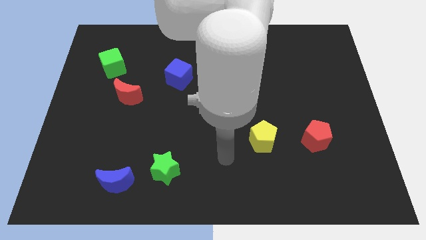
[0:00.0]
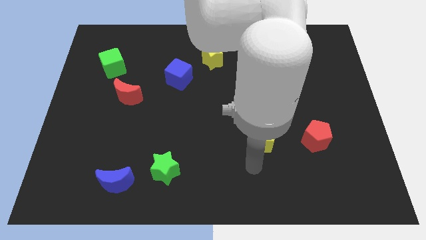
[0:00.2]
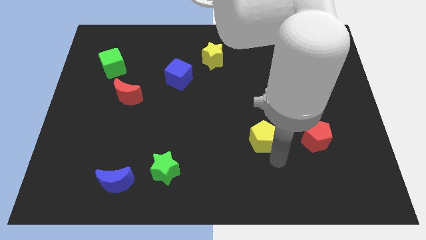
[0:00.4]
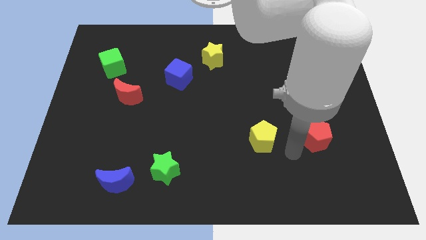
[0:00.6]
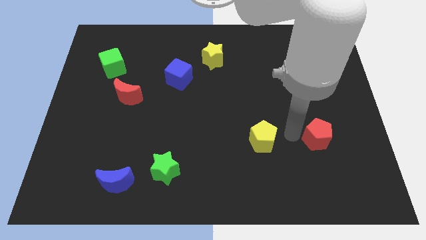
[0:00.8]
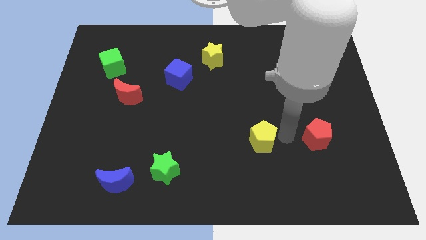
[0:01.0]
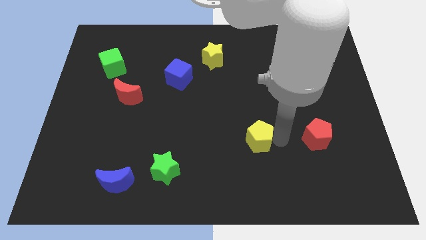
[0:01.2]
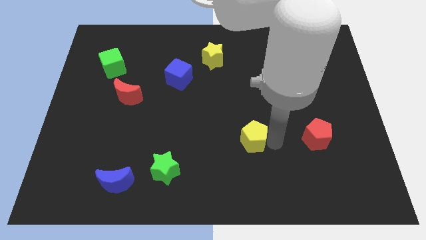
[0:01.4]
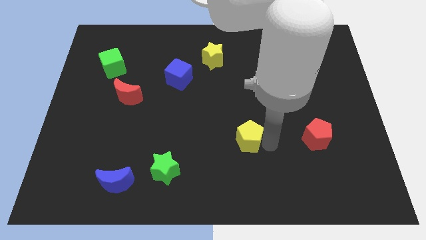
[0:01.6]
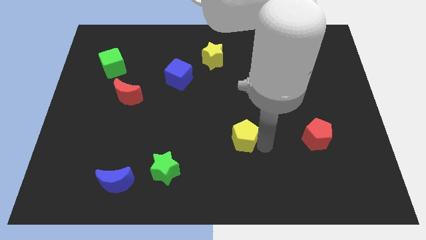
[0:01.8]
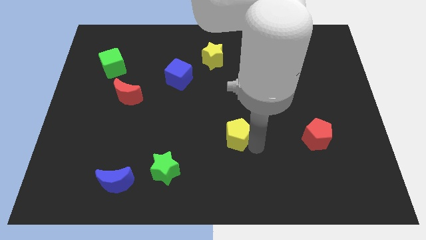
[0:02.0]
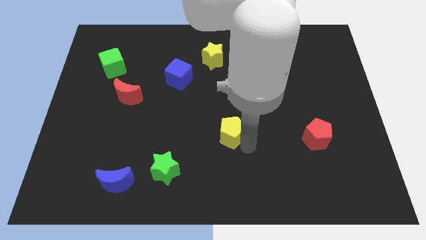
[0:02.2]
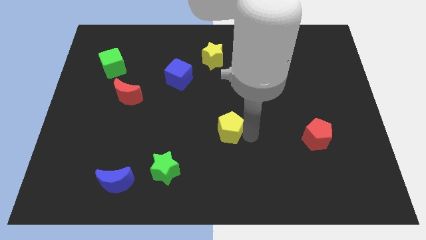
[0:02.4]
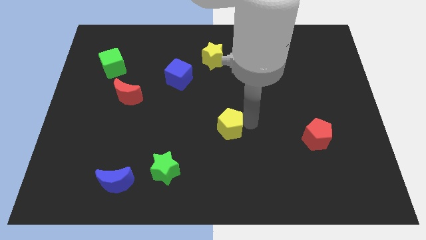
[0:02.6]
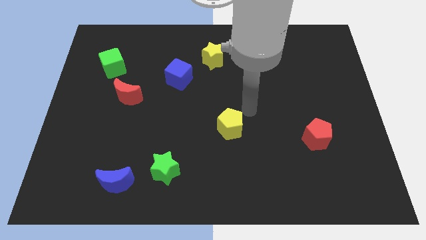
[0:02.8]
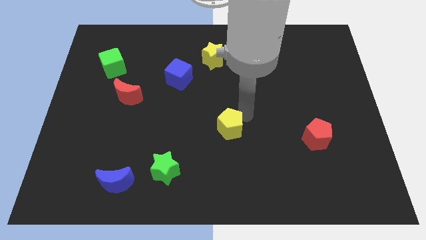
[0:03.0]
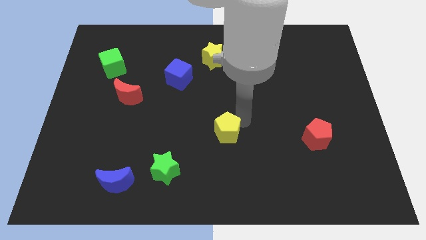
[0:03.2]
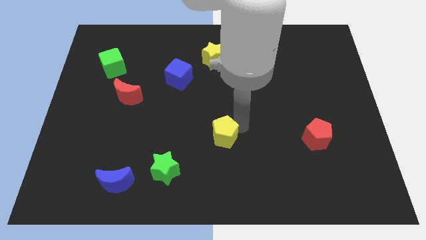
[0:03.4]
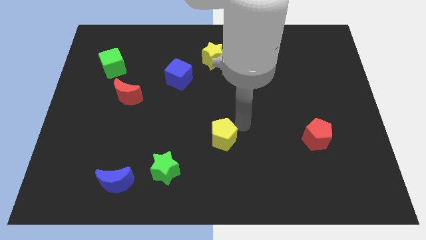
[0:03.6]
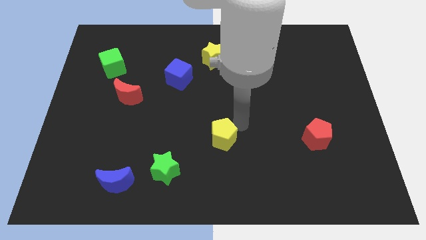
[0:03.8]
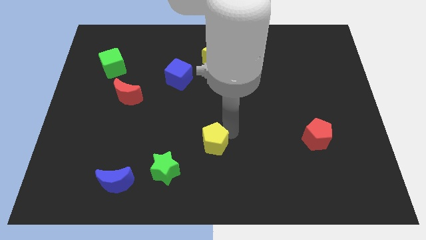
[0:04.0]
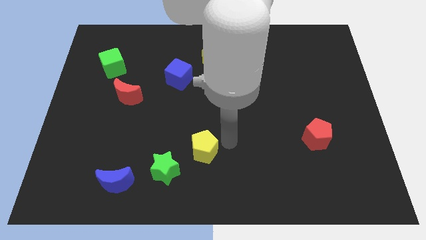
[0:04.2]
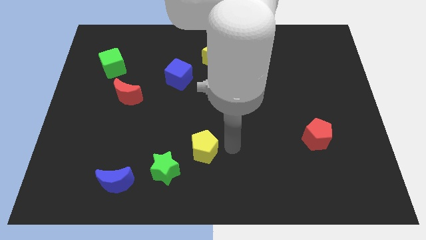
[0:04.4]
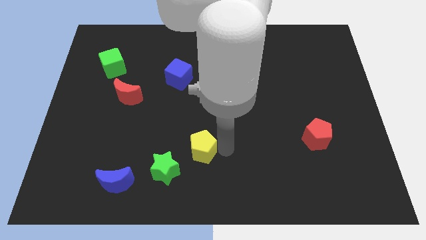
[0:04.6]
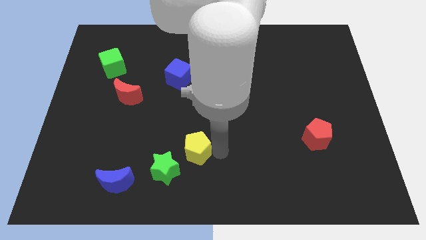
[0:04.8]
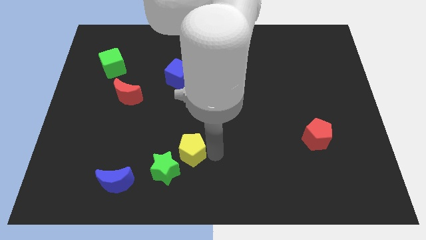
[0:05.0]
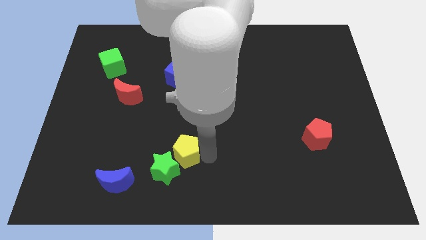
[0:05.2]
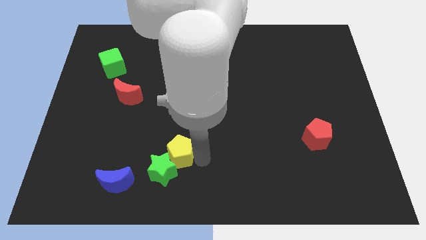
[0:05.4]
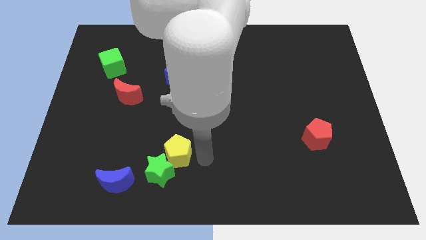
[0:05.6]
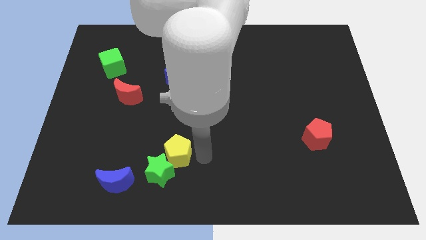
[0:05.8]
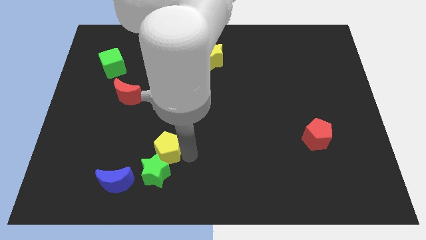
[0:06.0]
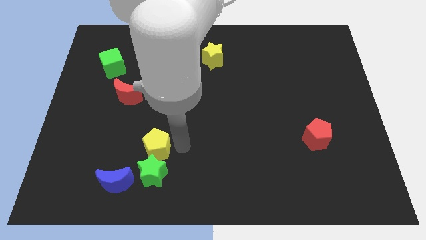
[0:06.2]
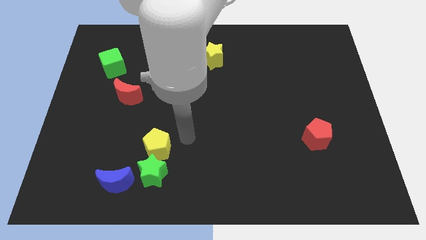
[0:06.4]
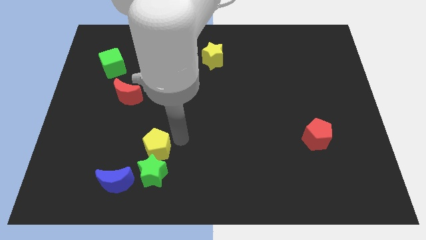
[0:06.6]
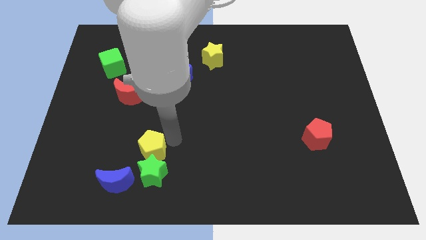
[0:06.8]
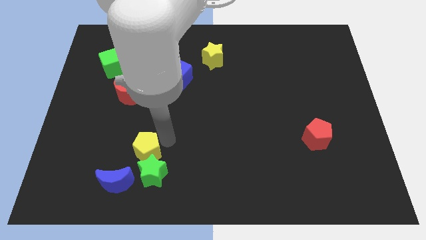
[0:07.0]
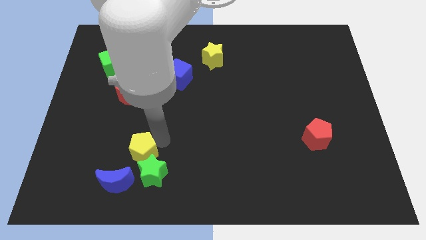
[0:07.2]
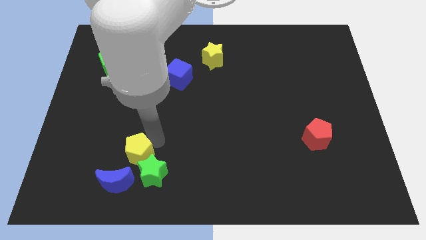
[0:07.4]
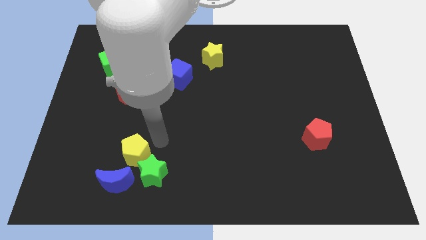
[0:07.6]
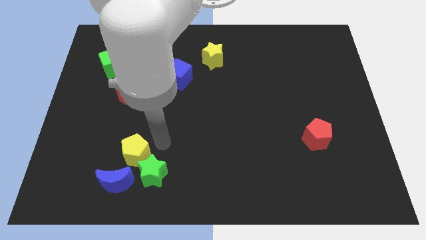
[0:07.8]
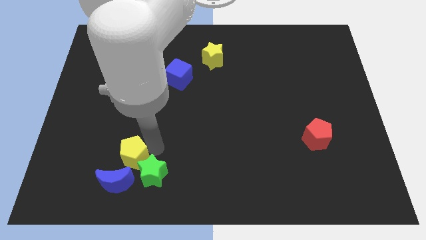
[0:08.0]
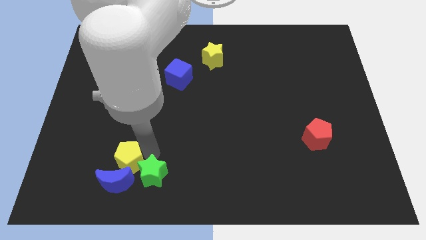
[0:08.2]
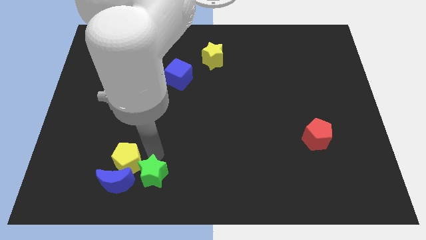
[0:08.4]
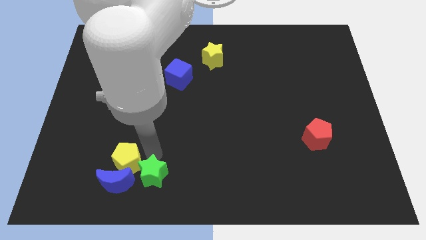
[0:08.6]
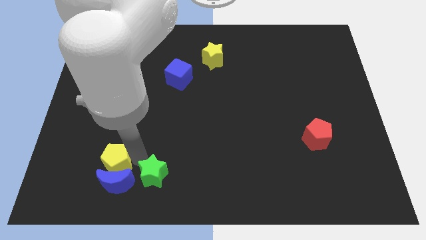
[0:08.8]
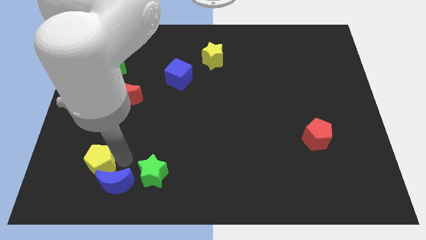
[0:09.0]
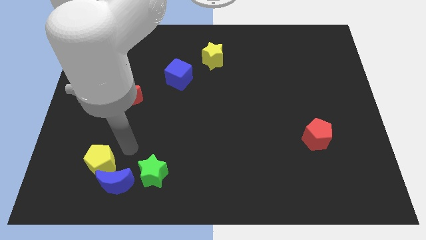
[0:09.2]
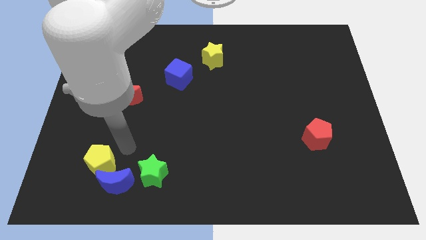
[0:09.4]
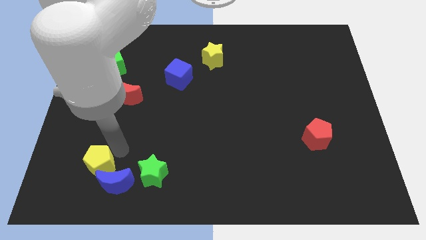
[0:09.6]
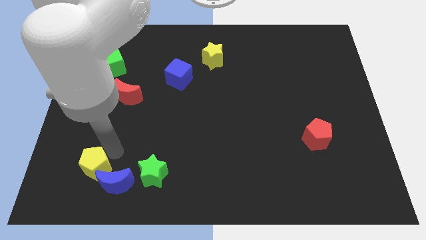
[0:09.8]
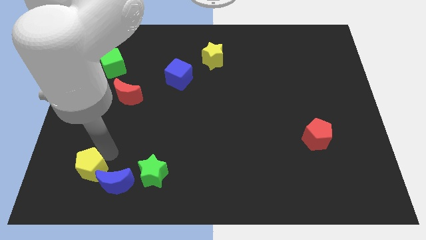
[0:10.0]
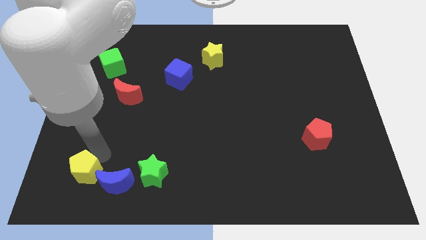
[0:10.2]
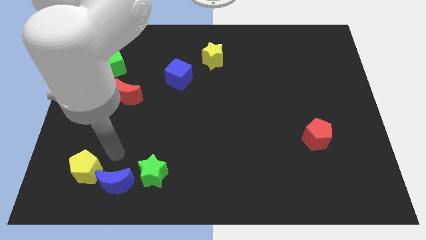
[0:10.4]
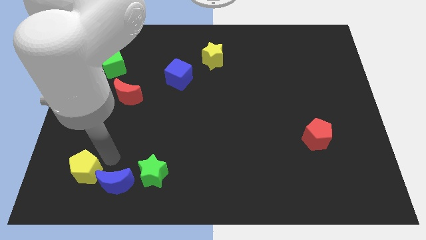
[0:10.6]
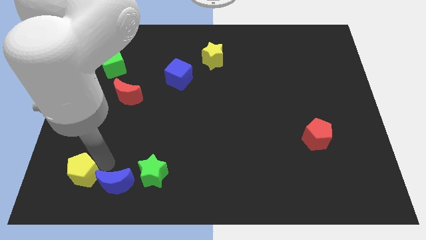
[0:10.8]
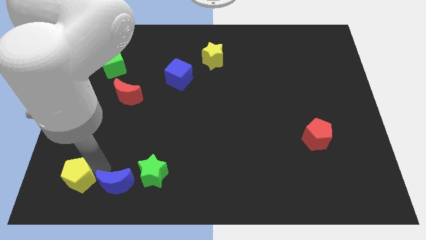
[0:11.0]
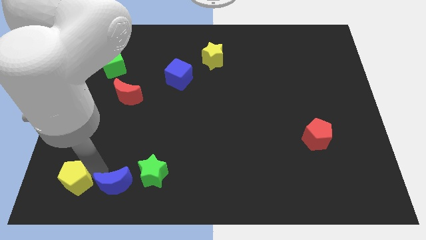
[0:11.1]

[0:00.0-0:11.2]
slide the yellow pentagon to the lower left corner
